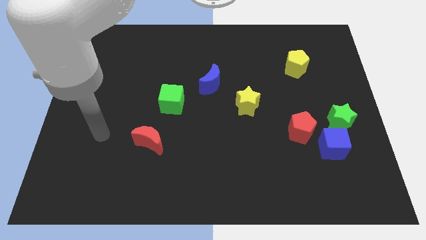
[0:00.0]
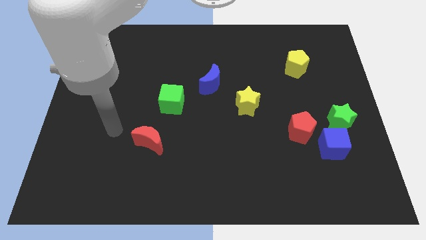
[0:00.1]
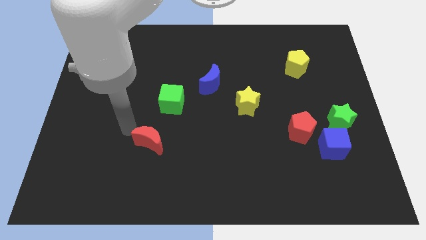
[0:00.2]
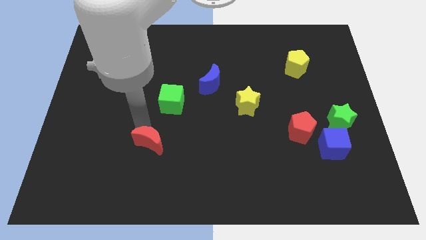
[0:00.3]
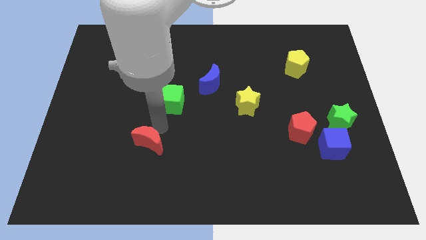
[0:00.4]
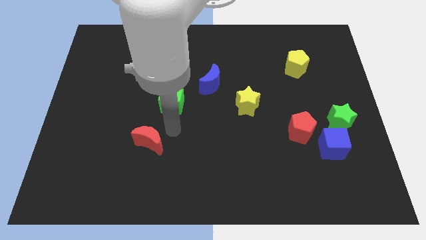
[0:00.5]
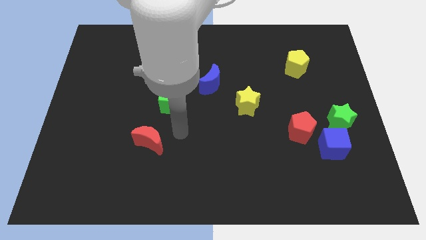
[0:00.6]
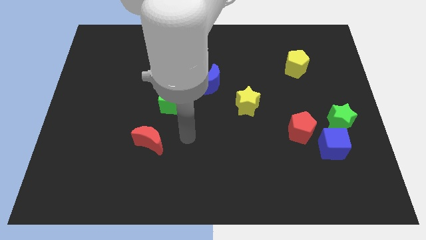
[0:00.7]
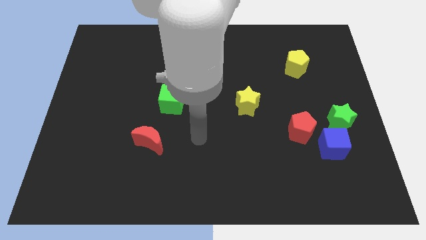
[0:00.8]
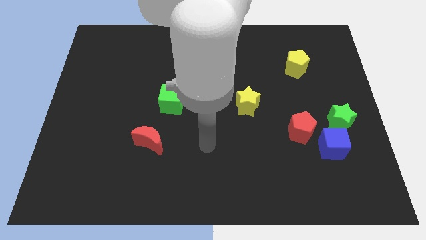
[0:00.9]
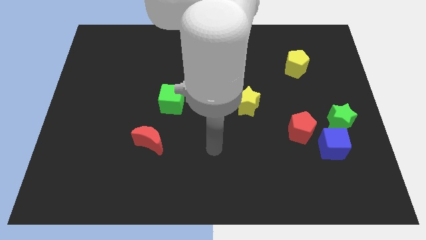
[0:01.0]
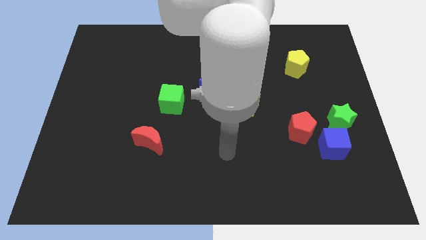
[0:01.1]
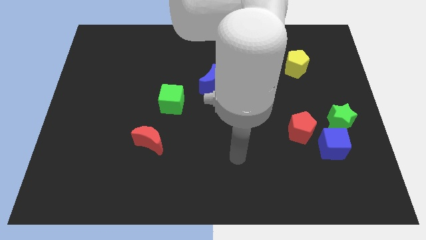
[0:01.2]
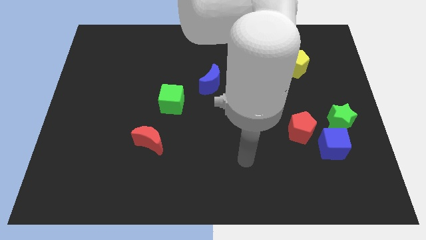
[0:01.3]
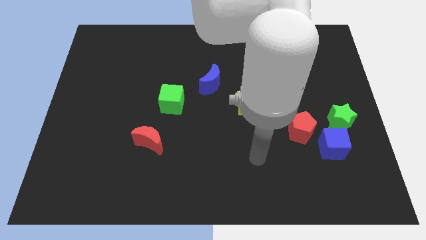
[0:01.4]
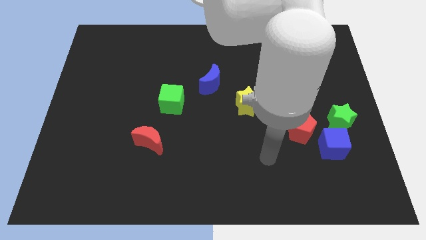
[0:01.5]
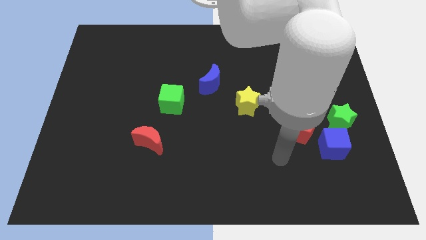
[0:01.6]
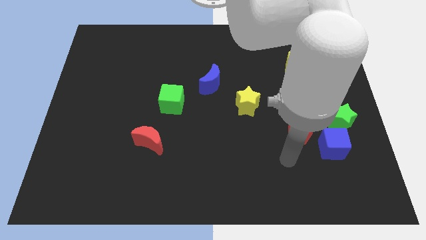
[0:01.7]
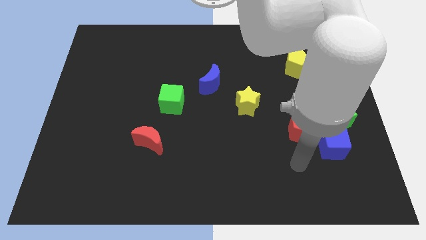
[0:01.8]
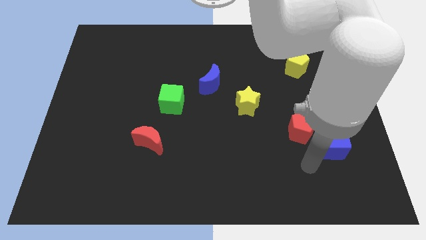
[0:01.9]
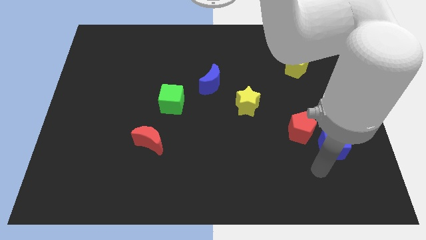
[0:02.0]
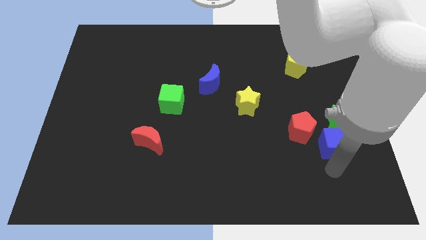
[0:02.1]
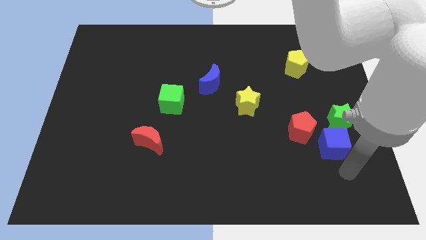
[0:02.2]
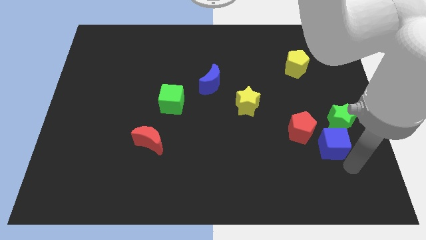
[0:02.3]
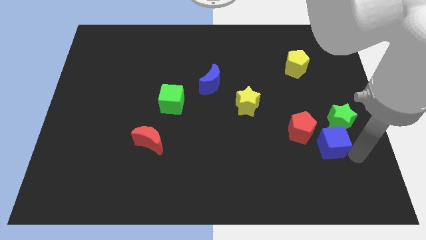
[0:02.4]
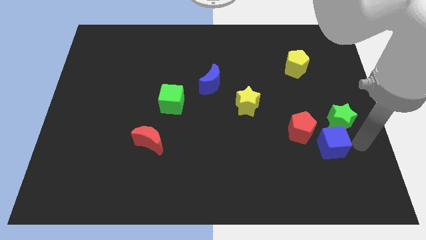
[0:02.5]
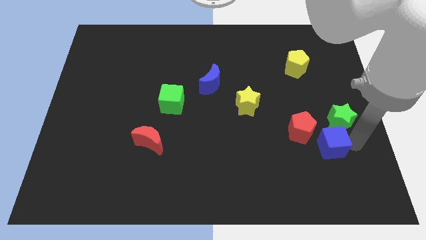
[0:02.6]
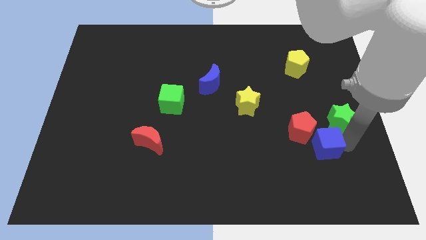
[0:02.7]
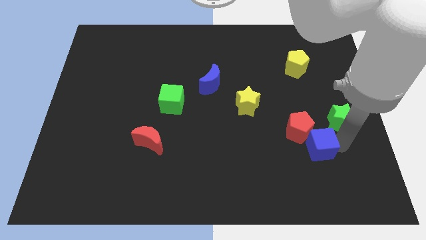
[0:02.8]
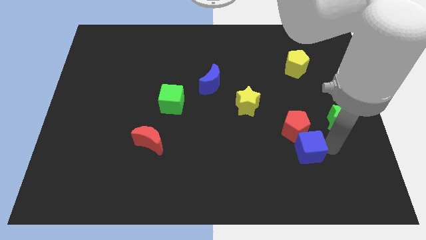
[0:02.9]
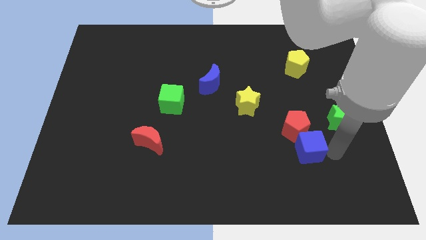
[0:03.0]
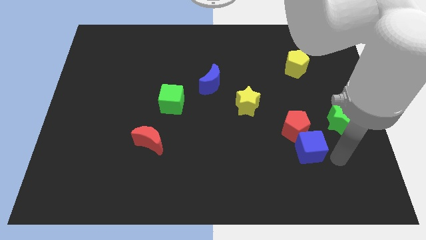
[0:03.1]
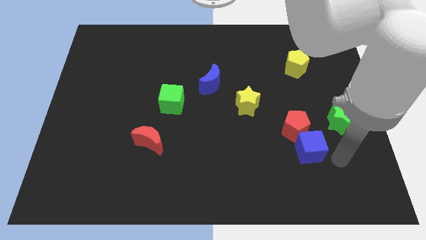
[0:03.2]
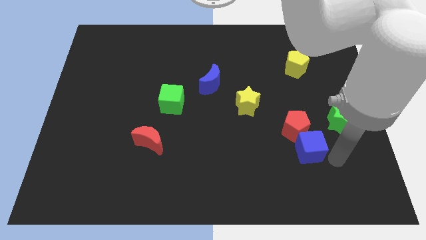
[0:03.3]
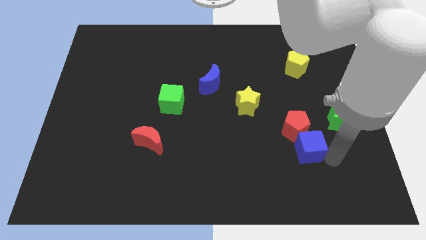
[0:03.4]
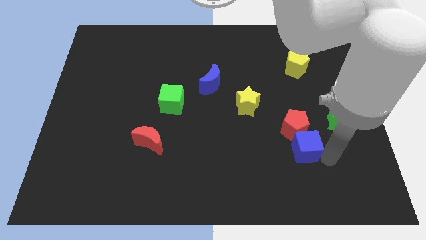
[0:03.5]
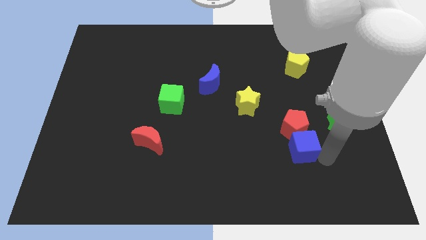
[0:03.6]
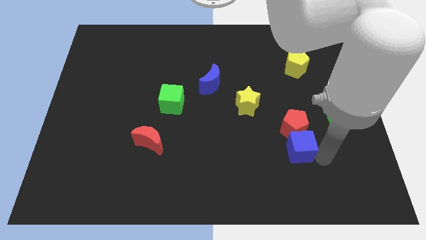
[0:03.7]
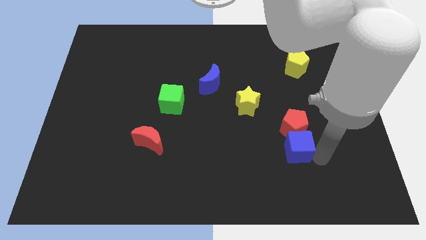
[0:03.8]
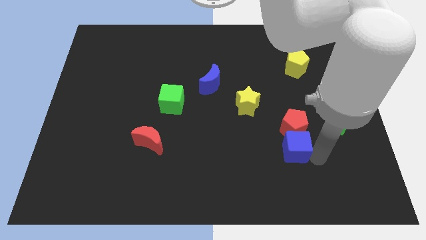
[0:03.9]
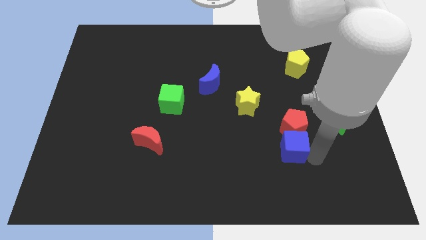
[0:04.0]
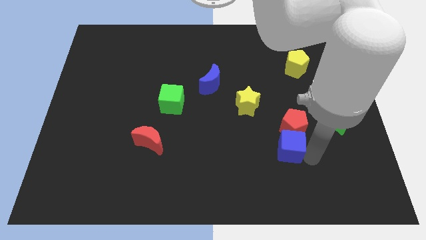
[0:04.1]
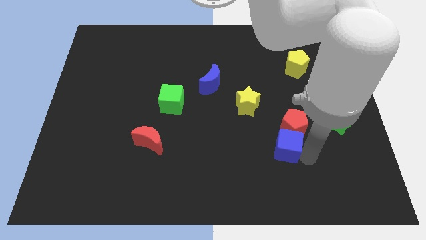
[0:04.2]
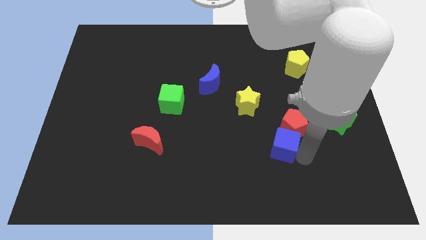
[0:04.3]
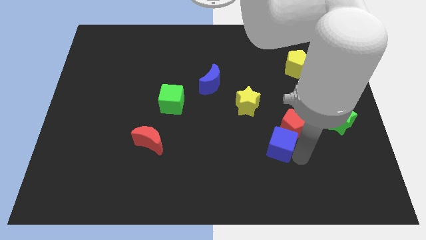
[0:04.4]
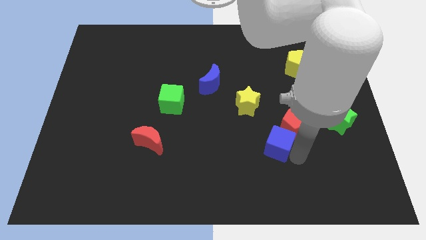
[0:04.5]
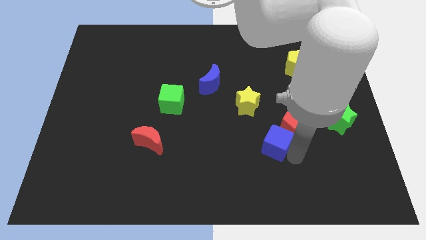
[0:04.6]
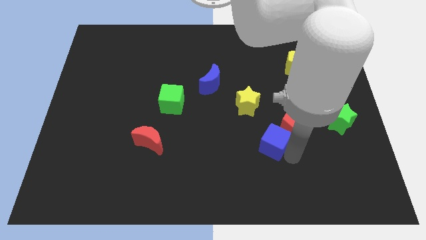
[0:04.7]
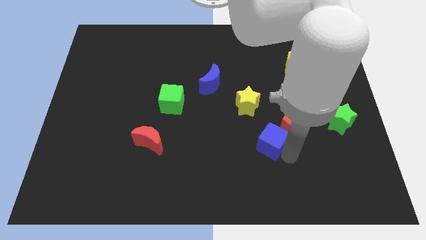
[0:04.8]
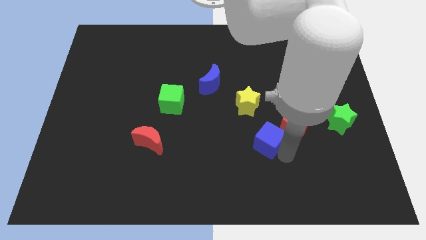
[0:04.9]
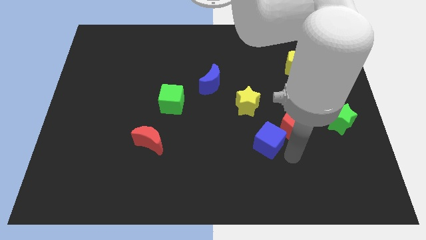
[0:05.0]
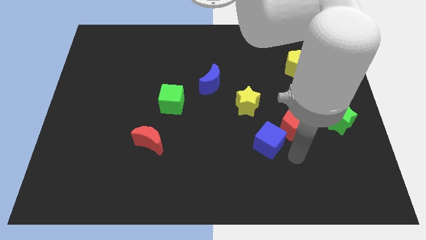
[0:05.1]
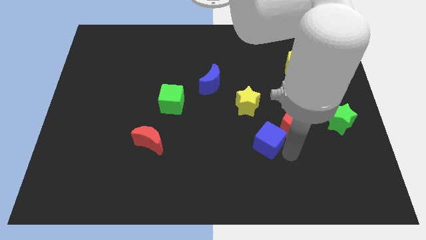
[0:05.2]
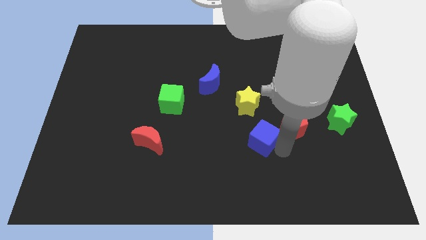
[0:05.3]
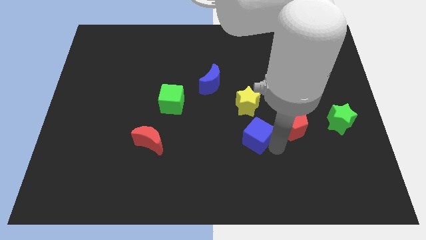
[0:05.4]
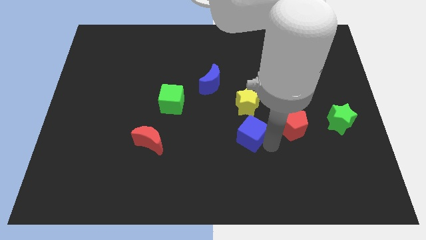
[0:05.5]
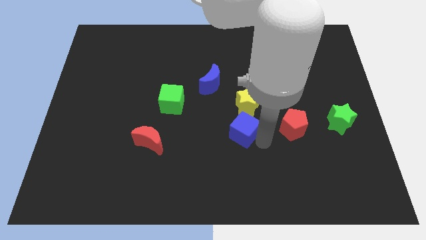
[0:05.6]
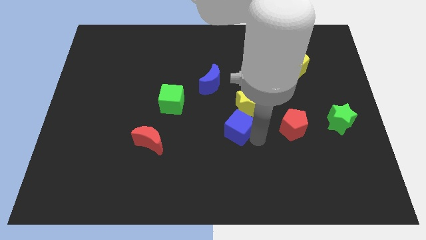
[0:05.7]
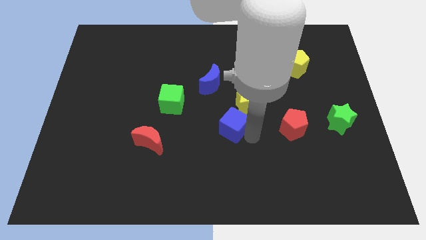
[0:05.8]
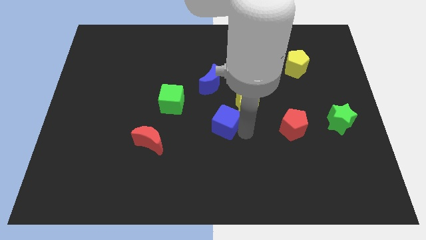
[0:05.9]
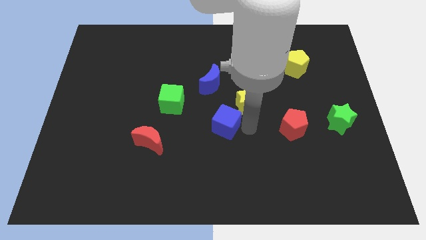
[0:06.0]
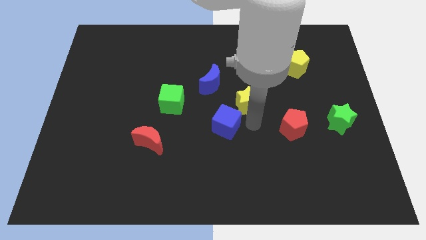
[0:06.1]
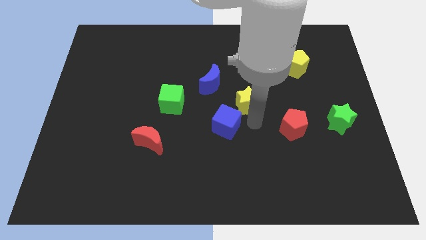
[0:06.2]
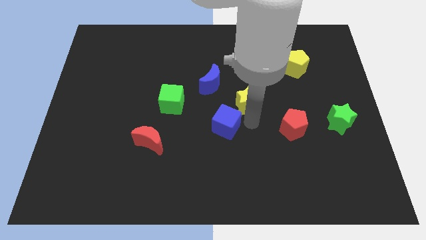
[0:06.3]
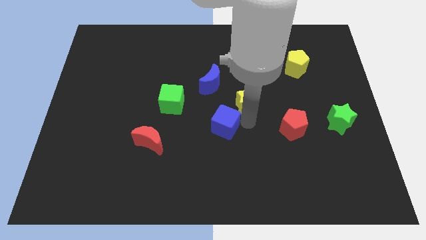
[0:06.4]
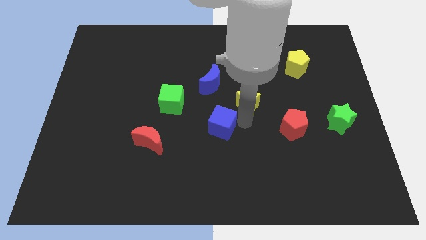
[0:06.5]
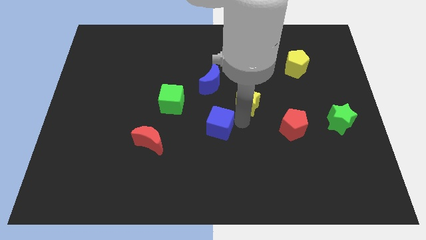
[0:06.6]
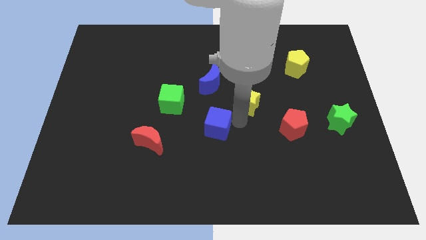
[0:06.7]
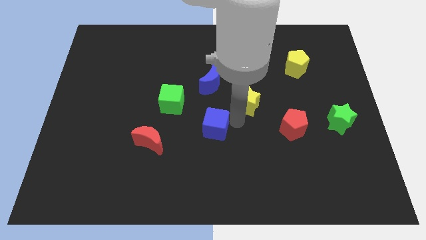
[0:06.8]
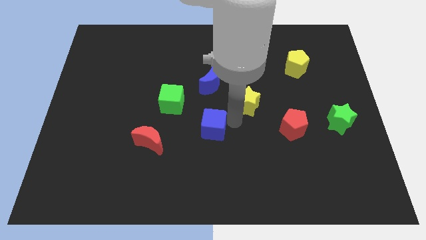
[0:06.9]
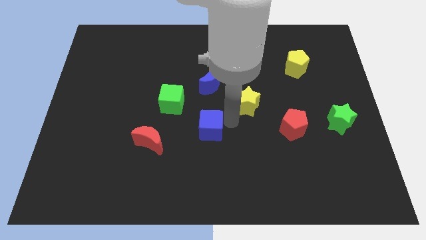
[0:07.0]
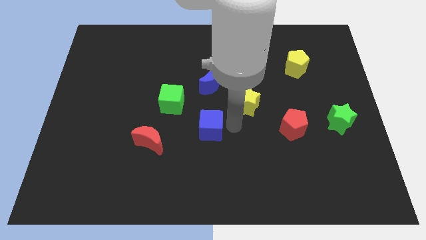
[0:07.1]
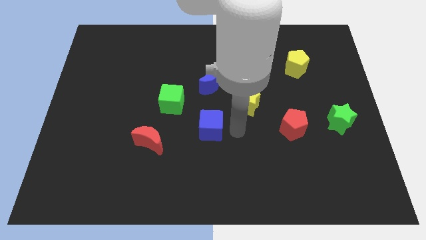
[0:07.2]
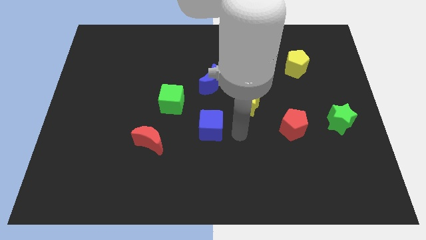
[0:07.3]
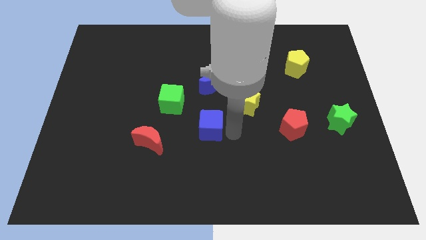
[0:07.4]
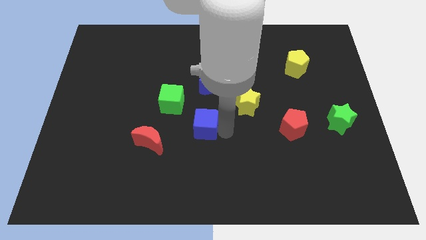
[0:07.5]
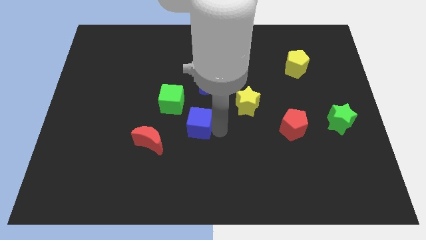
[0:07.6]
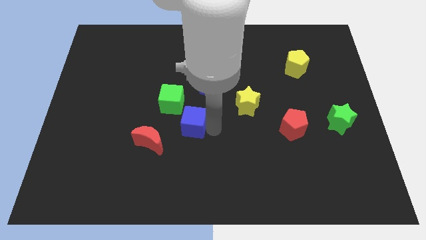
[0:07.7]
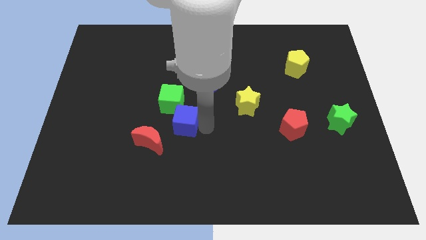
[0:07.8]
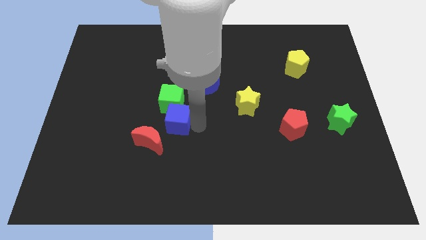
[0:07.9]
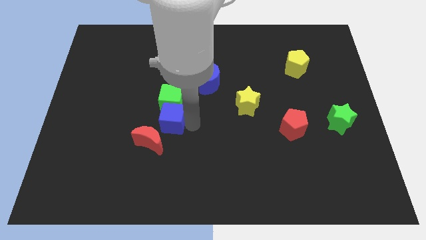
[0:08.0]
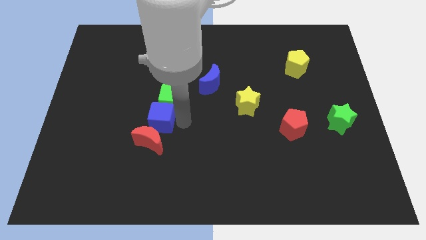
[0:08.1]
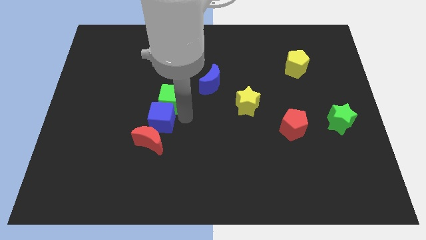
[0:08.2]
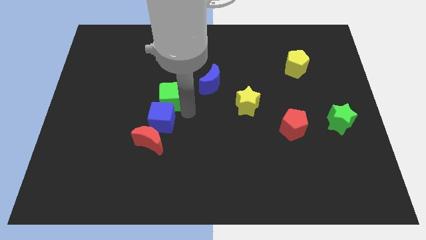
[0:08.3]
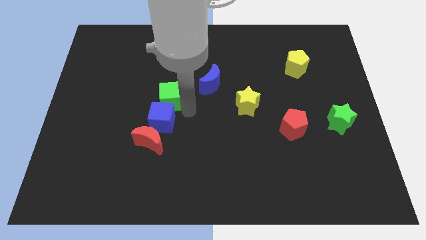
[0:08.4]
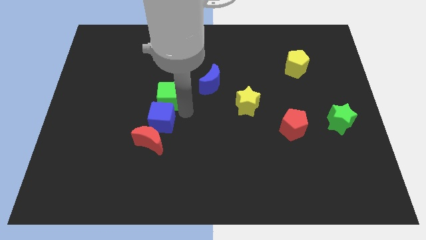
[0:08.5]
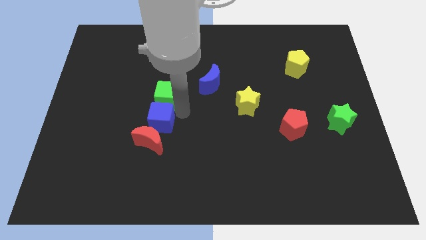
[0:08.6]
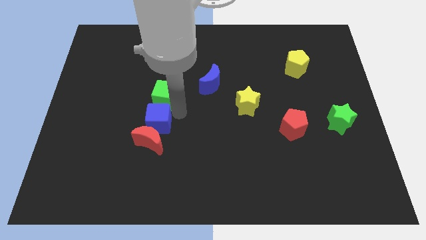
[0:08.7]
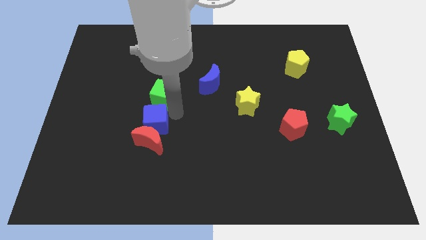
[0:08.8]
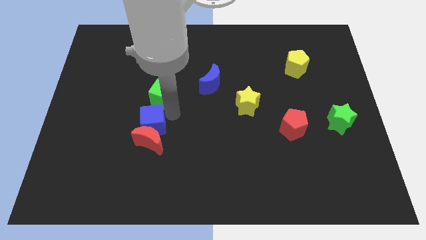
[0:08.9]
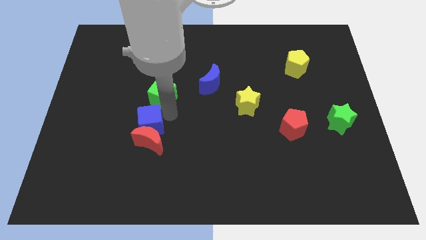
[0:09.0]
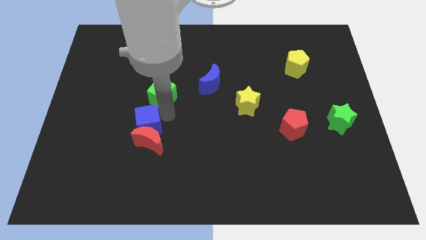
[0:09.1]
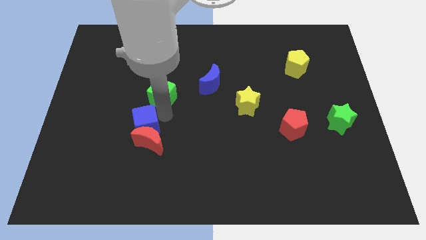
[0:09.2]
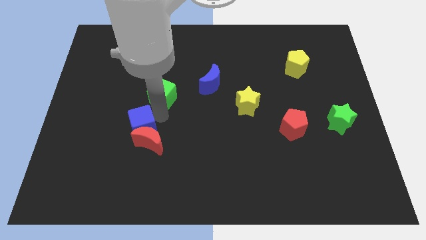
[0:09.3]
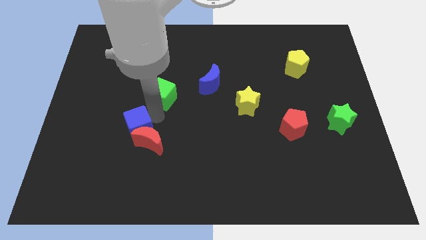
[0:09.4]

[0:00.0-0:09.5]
move the blue cube just left of the red moon
